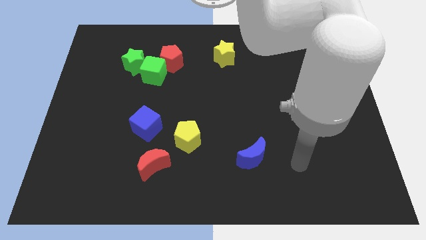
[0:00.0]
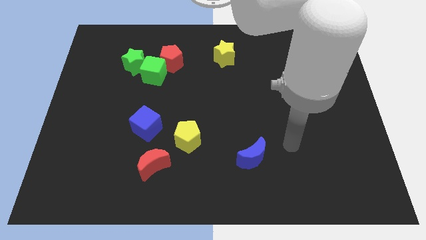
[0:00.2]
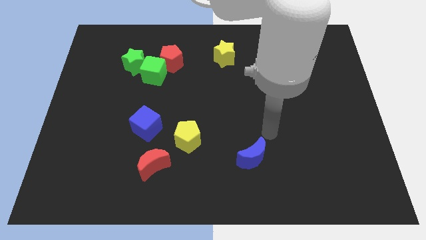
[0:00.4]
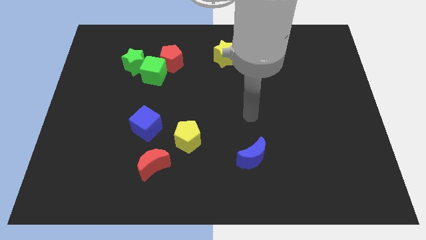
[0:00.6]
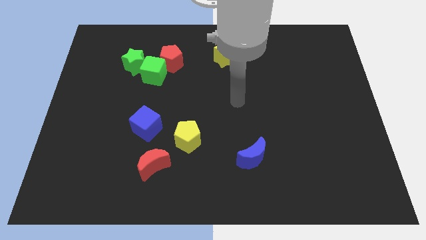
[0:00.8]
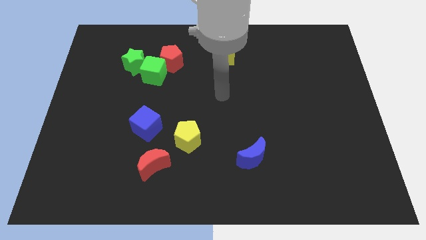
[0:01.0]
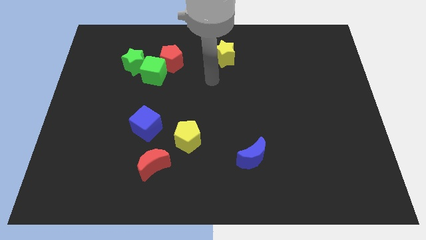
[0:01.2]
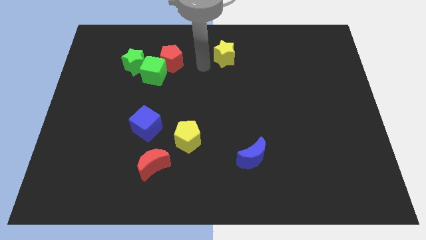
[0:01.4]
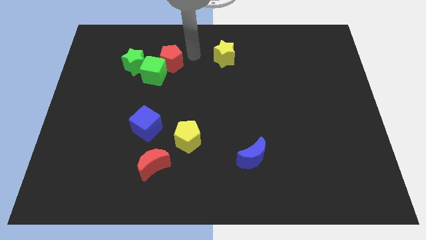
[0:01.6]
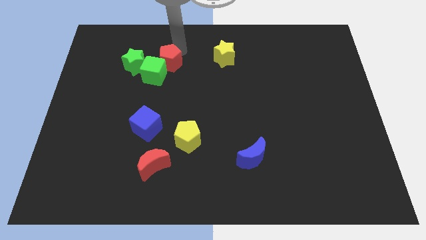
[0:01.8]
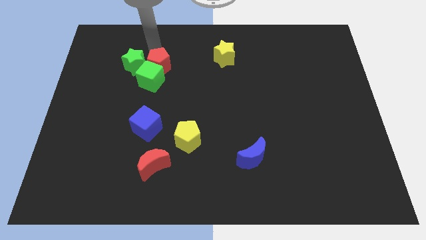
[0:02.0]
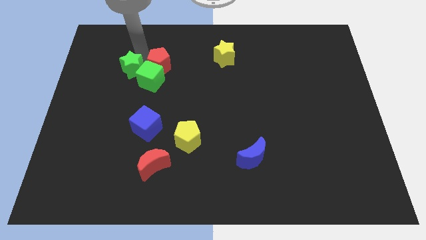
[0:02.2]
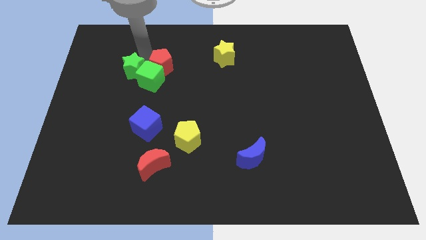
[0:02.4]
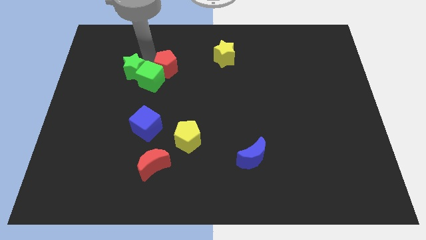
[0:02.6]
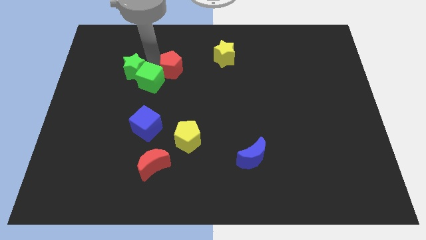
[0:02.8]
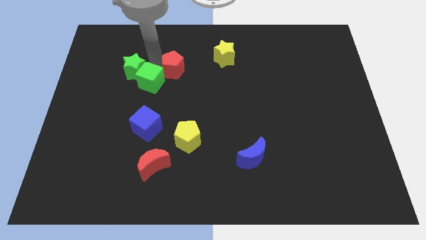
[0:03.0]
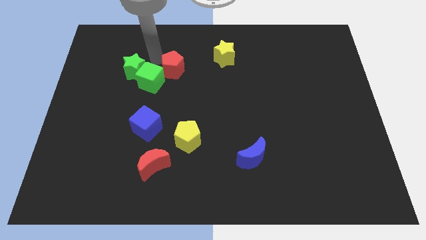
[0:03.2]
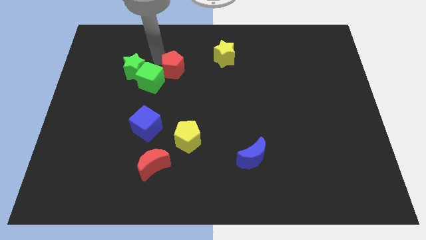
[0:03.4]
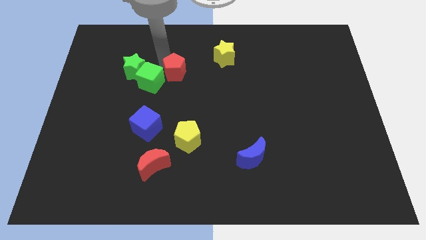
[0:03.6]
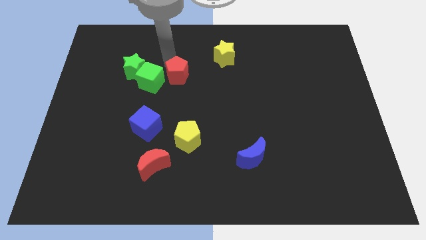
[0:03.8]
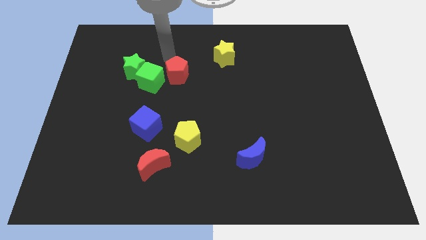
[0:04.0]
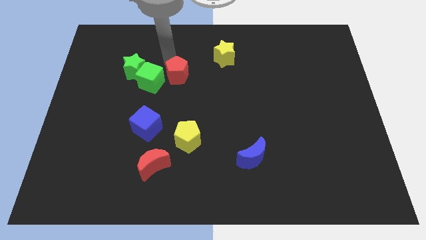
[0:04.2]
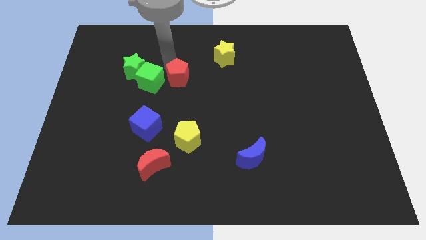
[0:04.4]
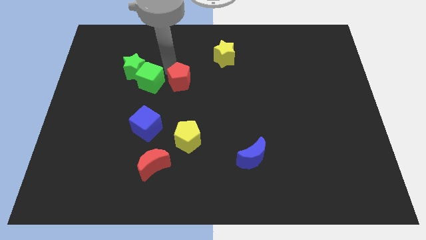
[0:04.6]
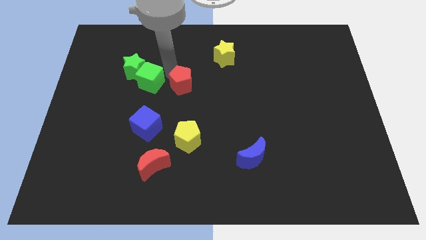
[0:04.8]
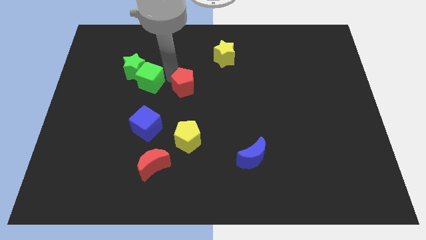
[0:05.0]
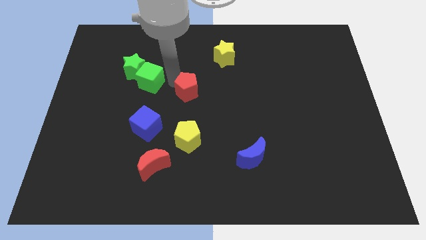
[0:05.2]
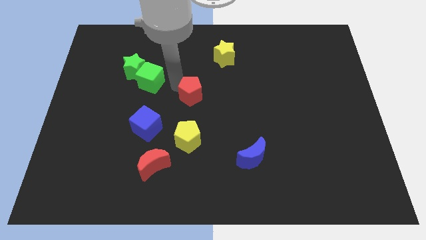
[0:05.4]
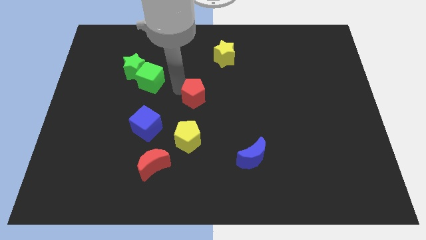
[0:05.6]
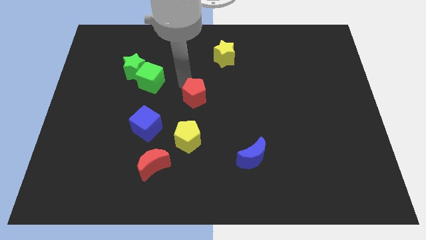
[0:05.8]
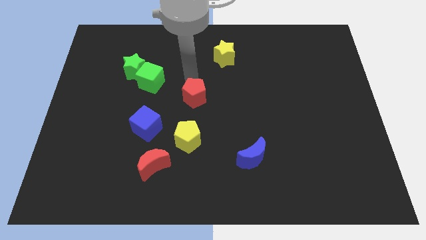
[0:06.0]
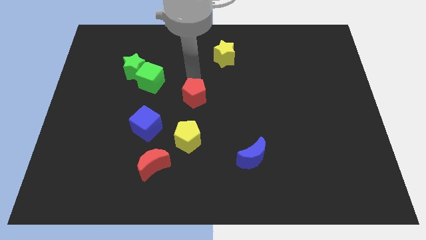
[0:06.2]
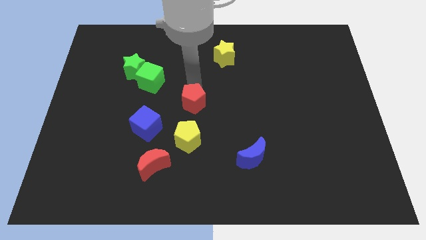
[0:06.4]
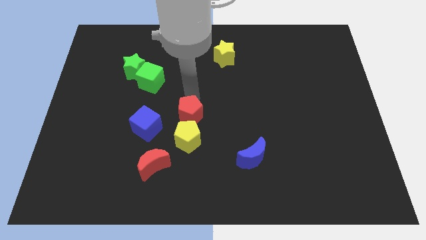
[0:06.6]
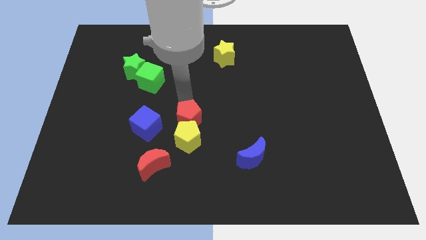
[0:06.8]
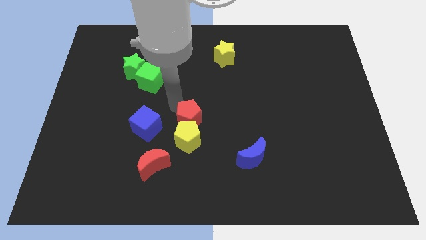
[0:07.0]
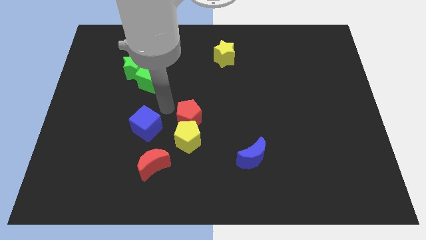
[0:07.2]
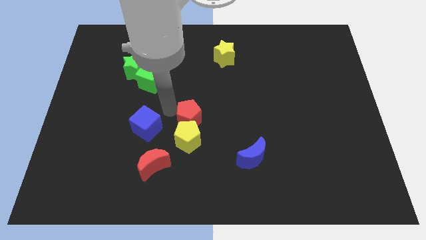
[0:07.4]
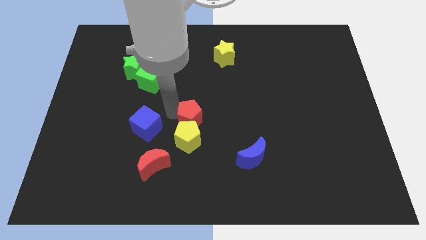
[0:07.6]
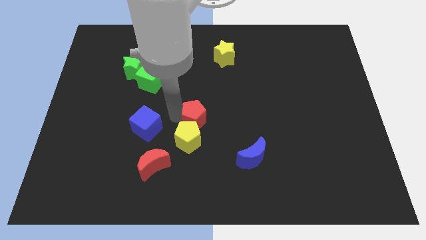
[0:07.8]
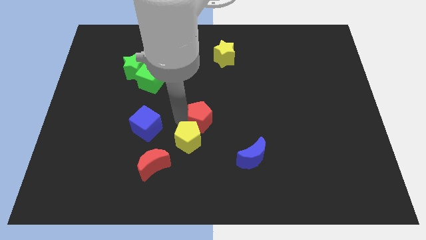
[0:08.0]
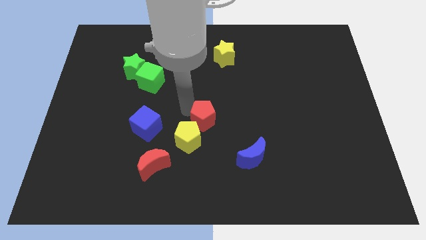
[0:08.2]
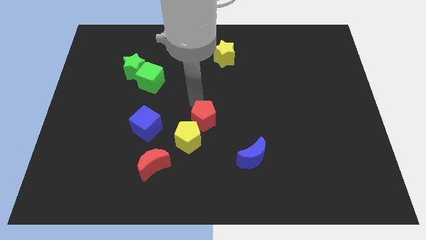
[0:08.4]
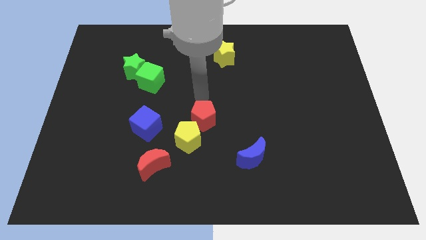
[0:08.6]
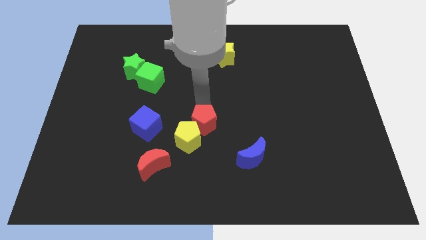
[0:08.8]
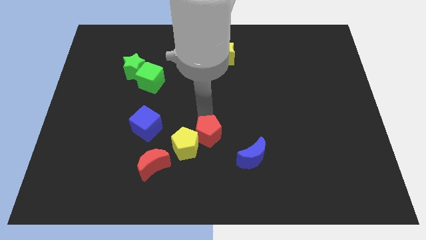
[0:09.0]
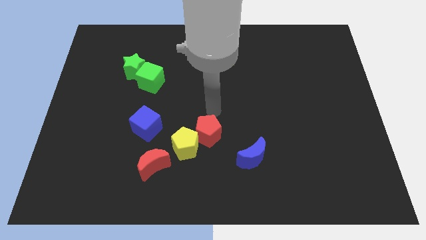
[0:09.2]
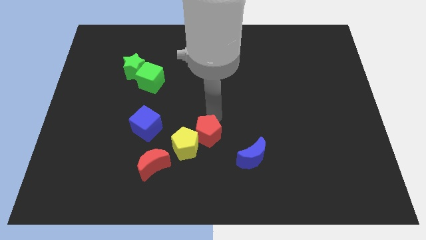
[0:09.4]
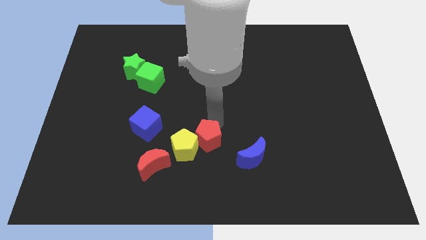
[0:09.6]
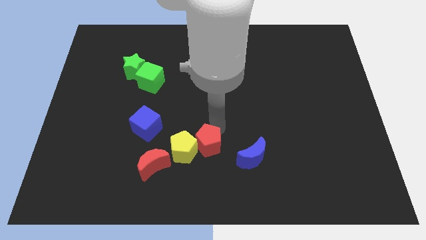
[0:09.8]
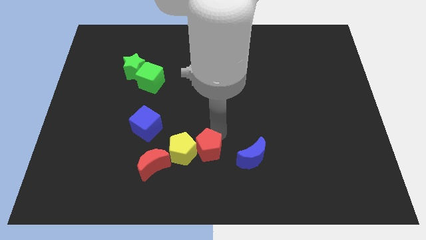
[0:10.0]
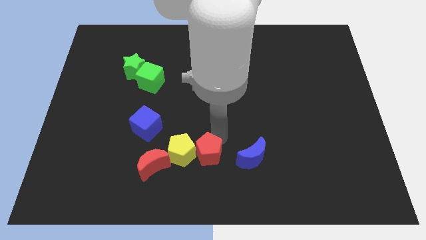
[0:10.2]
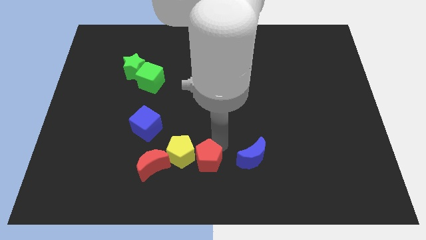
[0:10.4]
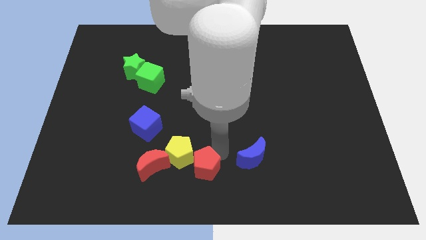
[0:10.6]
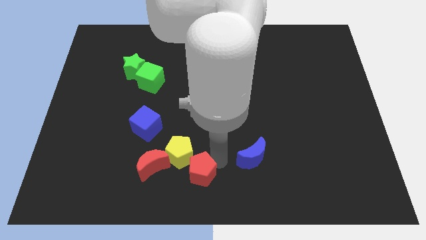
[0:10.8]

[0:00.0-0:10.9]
slide the red pentagon to the bottom of the yellow pentagon

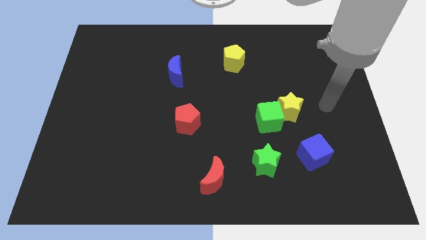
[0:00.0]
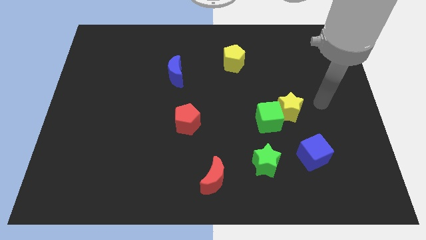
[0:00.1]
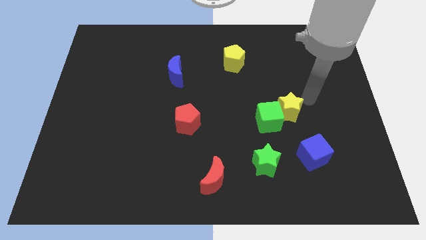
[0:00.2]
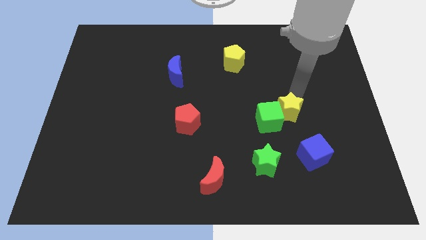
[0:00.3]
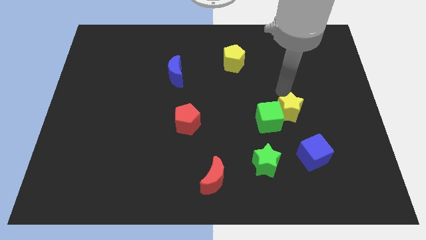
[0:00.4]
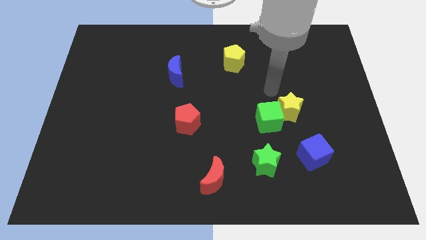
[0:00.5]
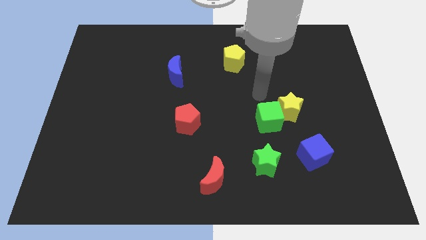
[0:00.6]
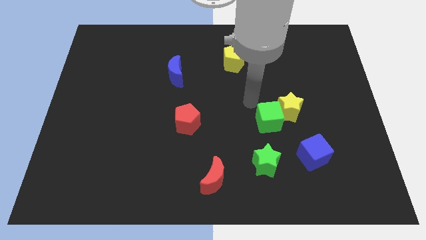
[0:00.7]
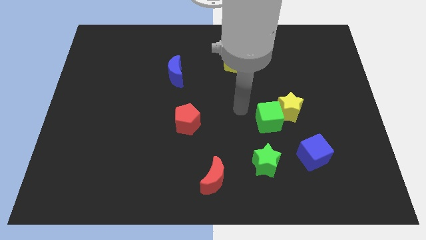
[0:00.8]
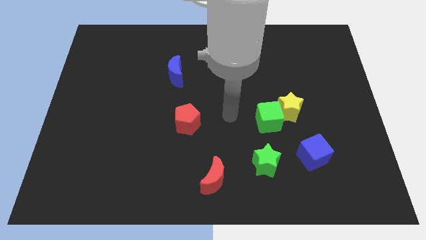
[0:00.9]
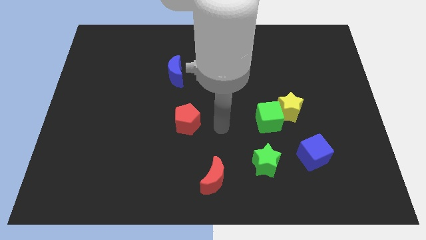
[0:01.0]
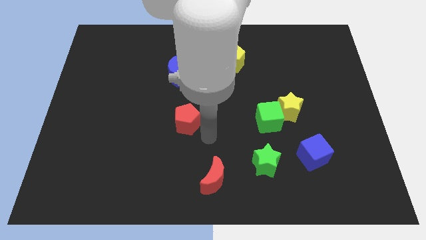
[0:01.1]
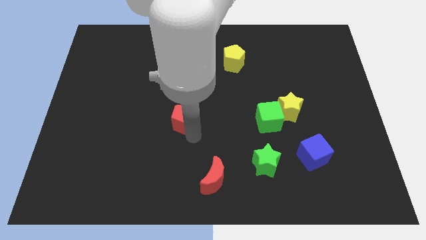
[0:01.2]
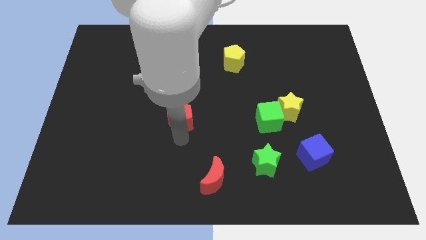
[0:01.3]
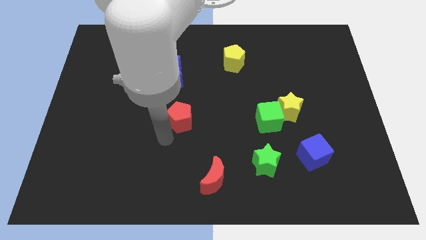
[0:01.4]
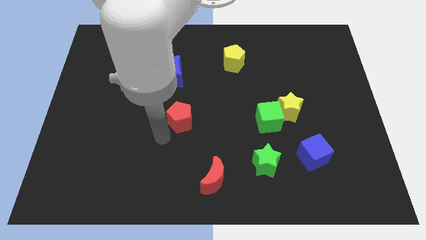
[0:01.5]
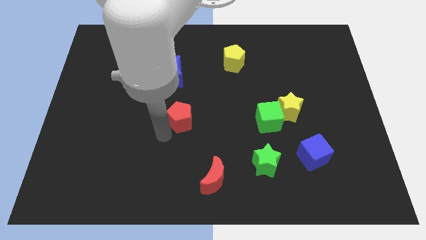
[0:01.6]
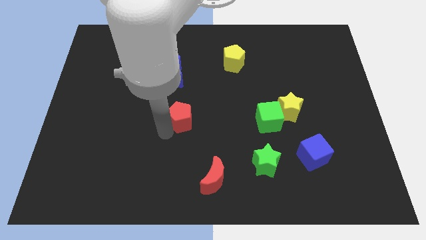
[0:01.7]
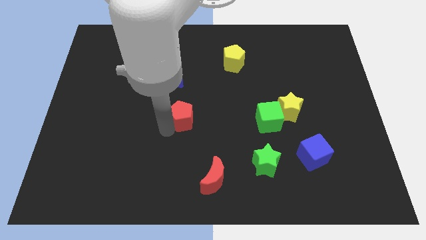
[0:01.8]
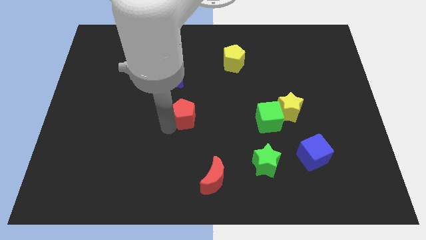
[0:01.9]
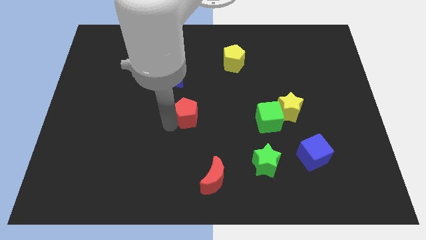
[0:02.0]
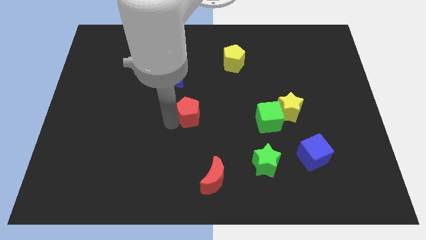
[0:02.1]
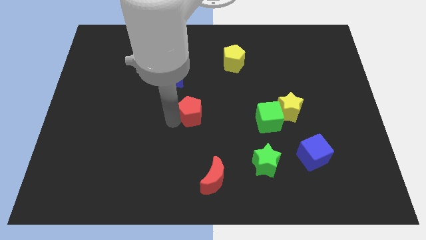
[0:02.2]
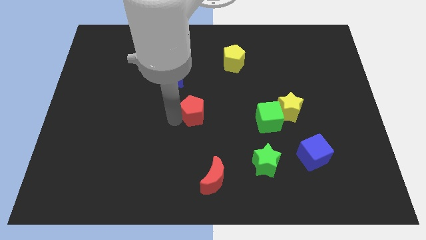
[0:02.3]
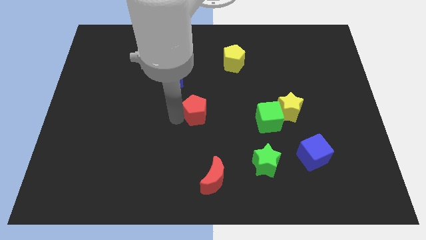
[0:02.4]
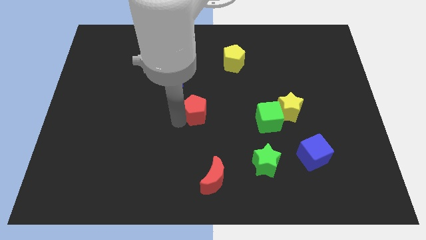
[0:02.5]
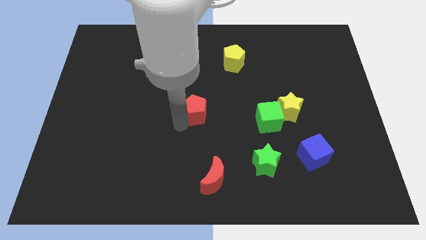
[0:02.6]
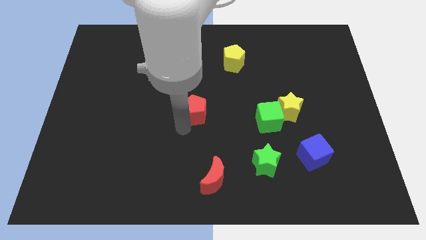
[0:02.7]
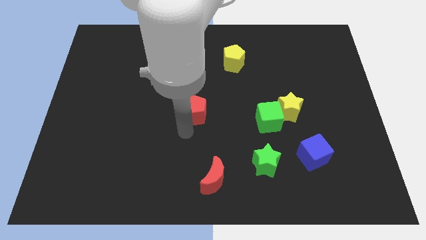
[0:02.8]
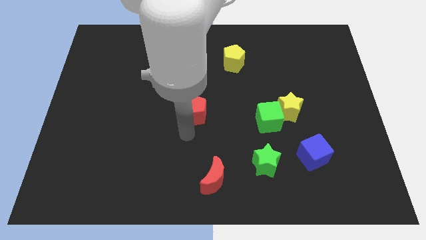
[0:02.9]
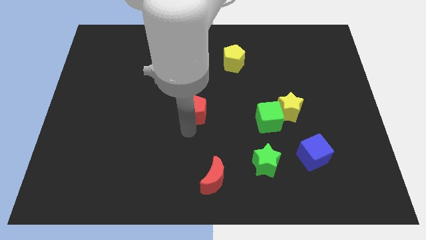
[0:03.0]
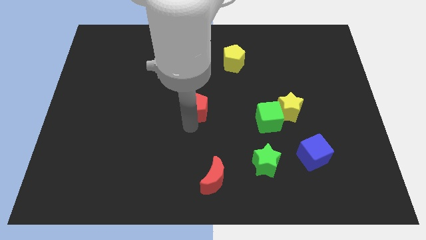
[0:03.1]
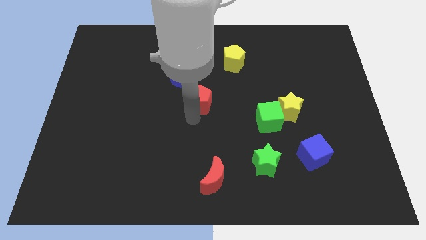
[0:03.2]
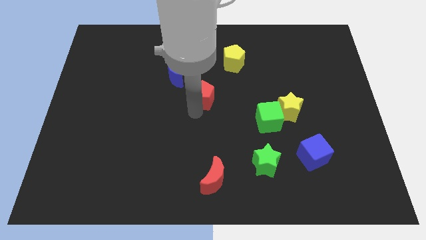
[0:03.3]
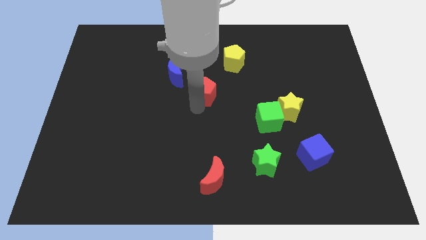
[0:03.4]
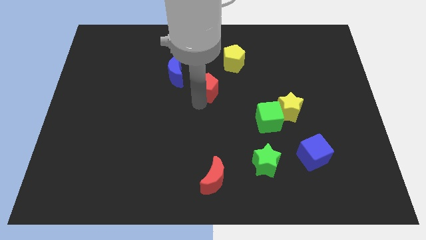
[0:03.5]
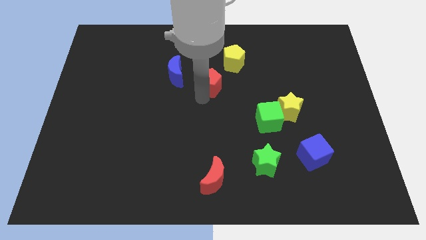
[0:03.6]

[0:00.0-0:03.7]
slide the red pentagon to the right side of the blue moon
